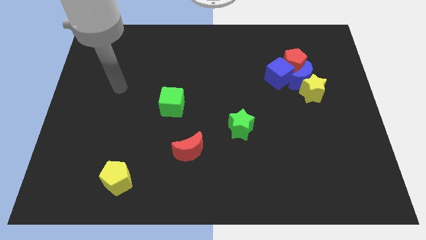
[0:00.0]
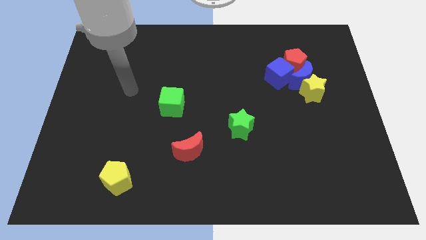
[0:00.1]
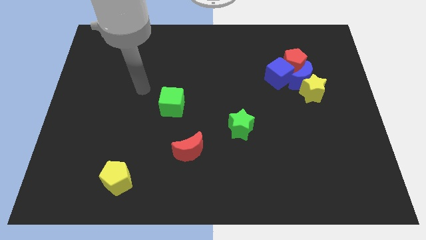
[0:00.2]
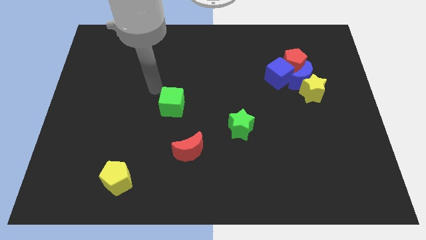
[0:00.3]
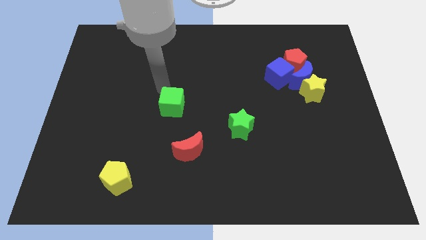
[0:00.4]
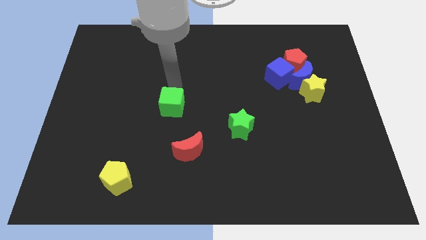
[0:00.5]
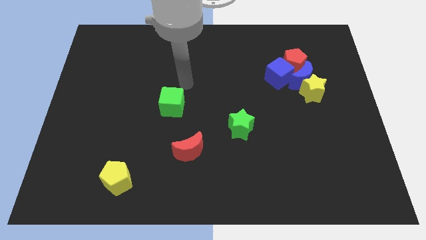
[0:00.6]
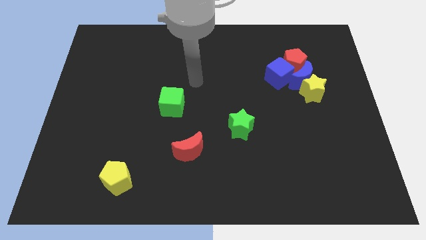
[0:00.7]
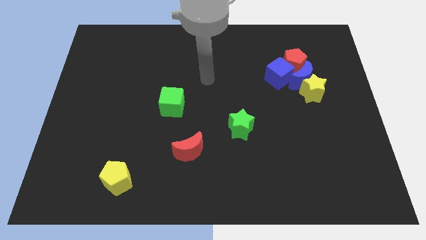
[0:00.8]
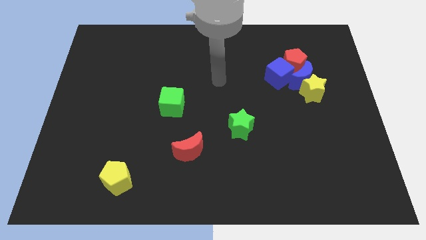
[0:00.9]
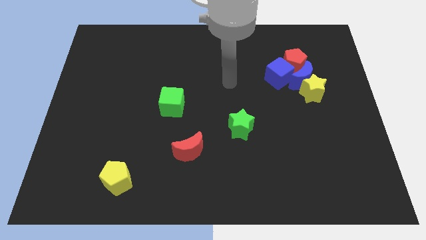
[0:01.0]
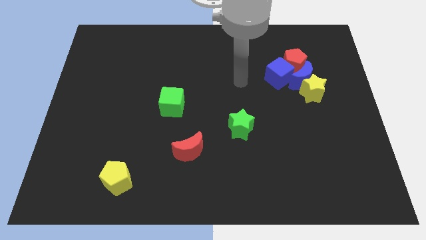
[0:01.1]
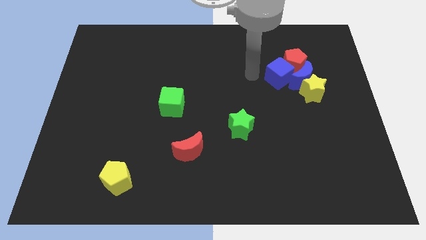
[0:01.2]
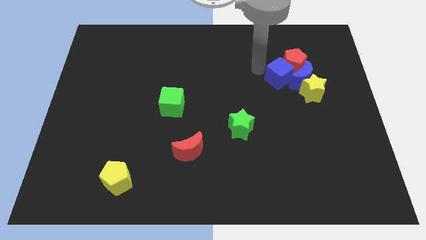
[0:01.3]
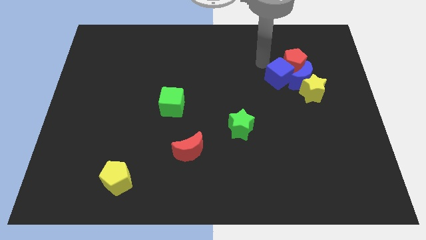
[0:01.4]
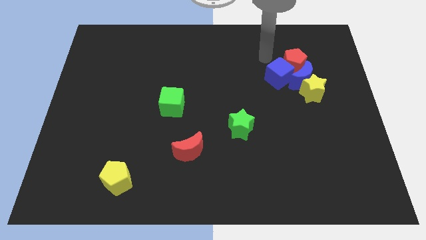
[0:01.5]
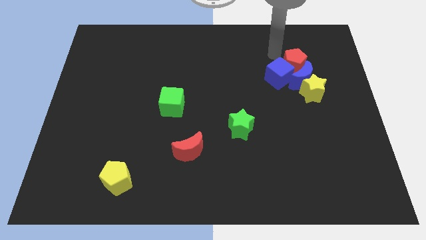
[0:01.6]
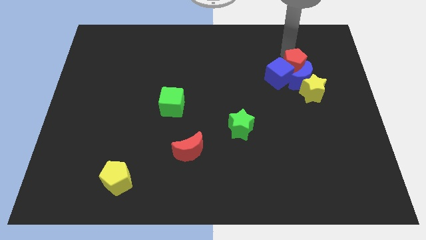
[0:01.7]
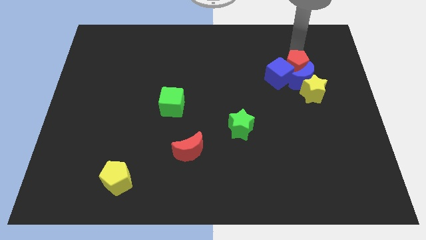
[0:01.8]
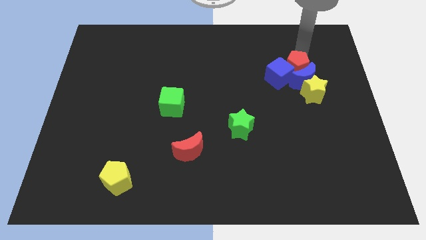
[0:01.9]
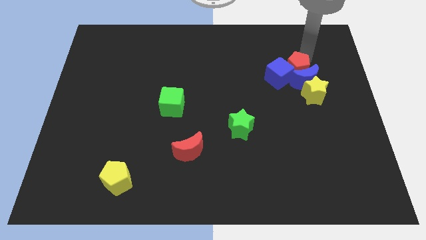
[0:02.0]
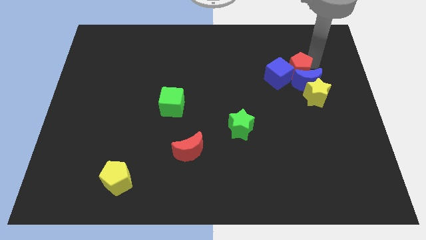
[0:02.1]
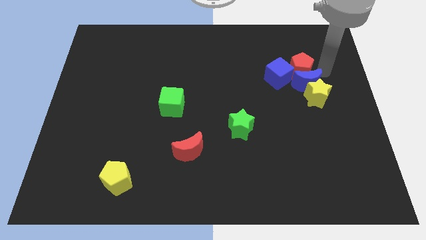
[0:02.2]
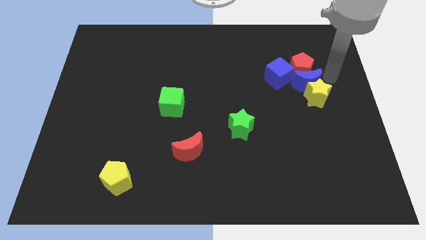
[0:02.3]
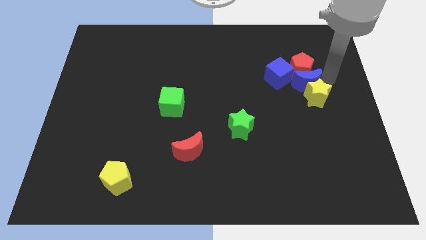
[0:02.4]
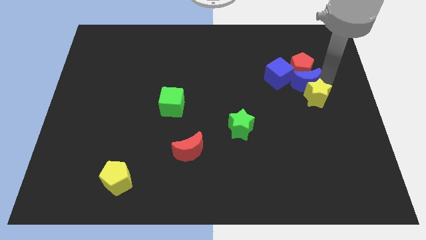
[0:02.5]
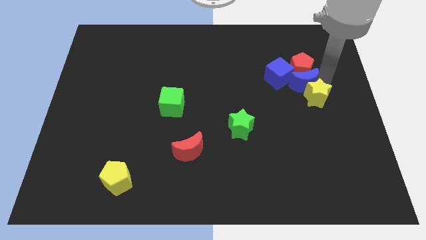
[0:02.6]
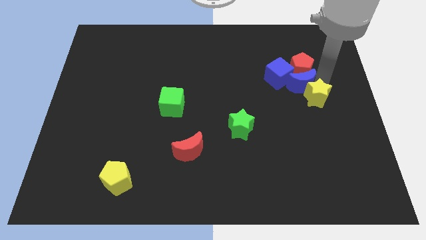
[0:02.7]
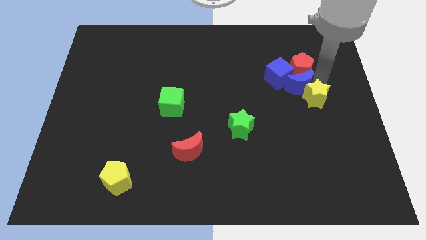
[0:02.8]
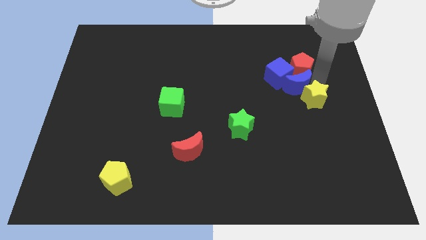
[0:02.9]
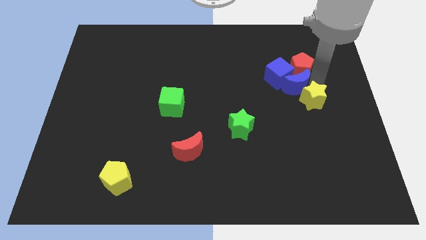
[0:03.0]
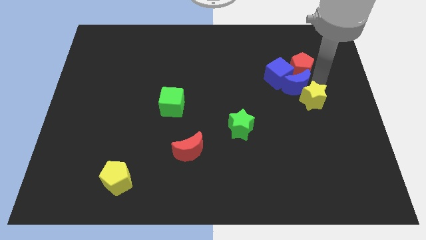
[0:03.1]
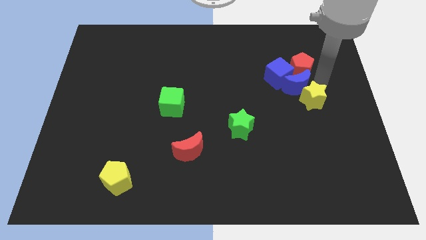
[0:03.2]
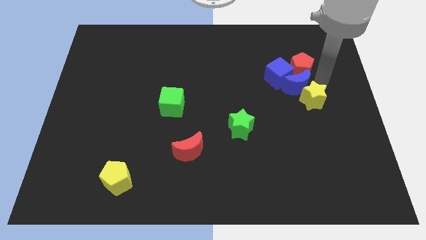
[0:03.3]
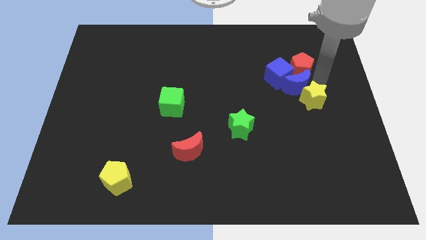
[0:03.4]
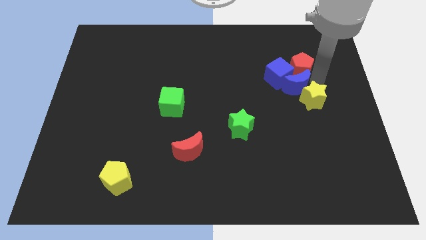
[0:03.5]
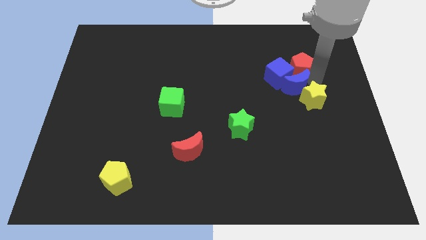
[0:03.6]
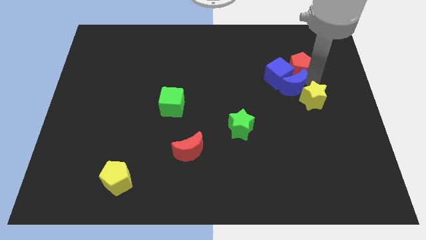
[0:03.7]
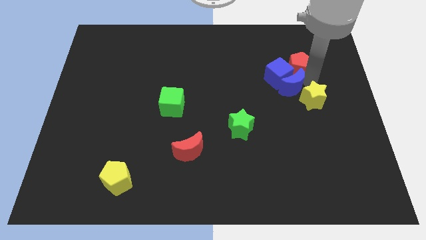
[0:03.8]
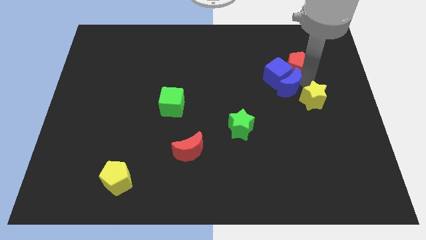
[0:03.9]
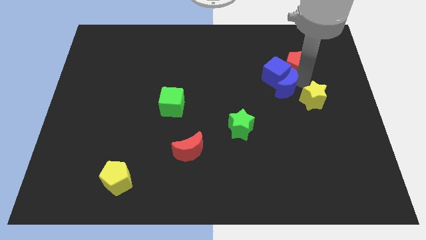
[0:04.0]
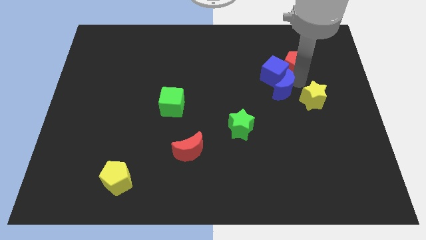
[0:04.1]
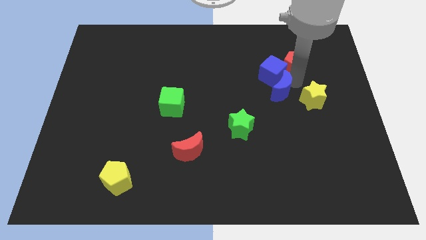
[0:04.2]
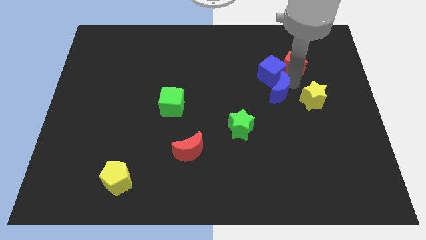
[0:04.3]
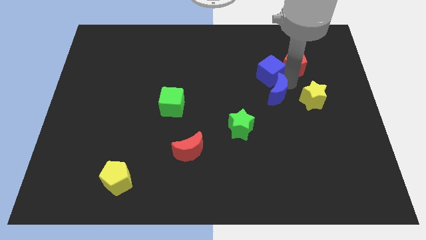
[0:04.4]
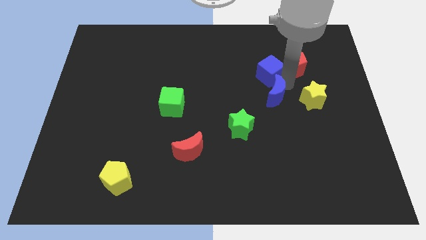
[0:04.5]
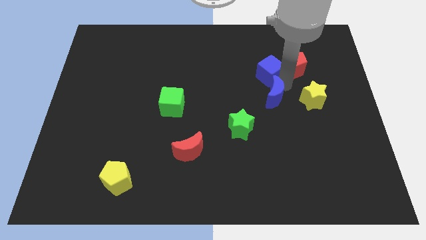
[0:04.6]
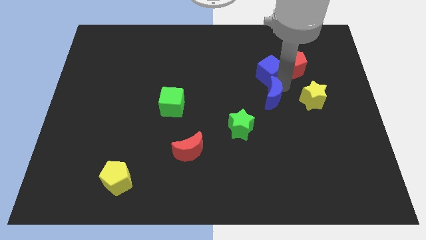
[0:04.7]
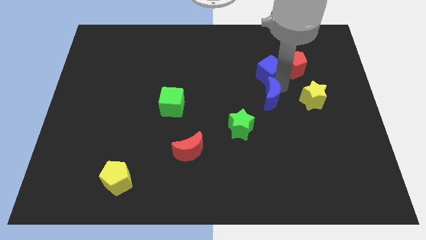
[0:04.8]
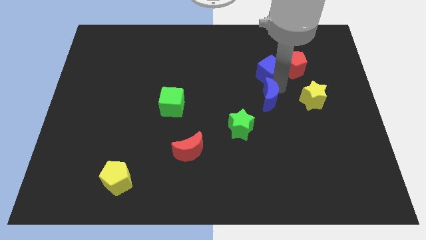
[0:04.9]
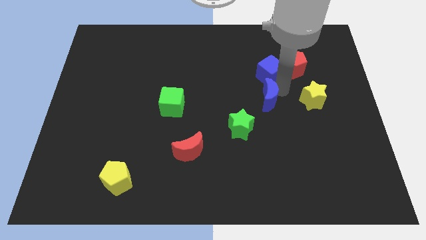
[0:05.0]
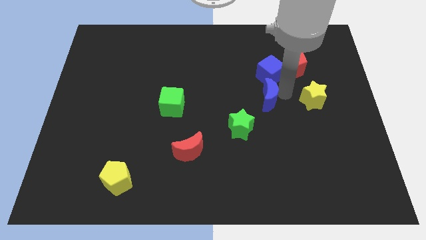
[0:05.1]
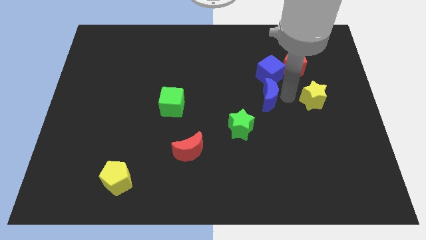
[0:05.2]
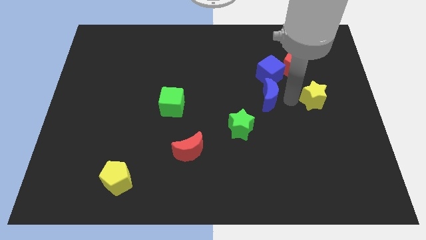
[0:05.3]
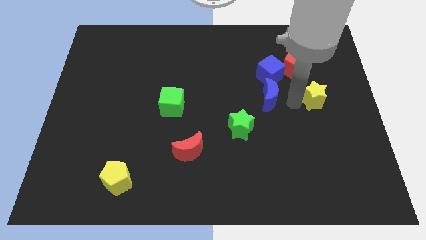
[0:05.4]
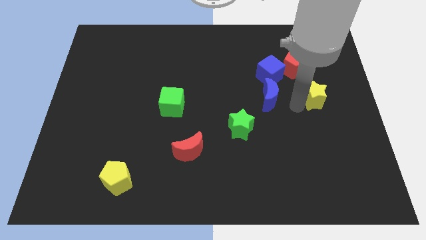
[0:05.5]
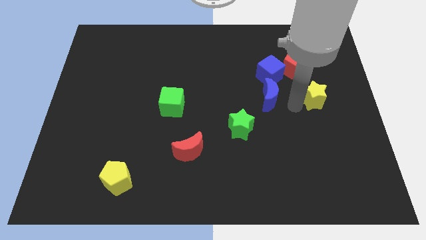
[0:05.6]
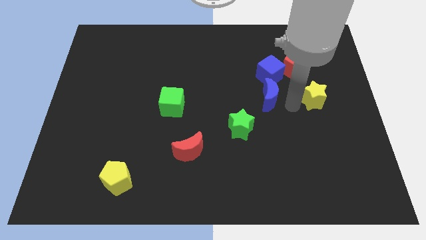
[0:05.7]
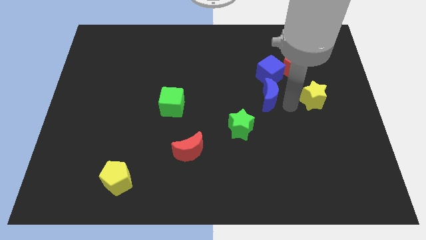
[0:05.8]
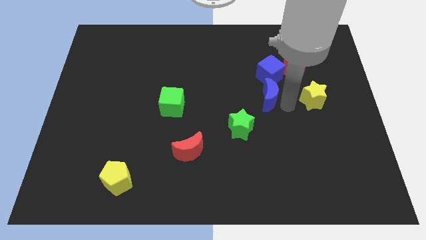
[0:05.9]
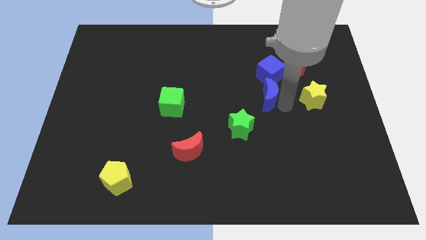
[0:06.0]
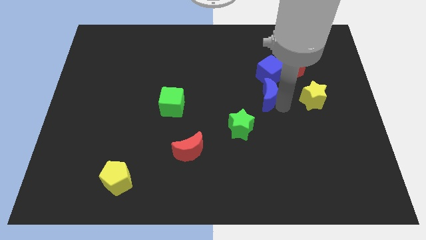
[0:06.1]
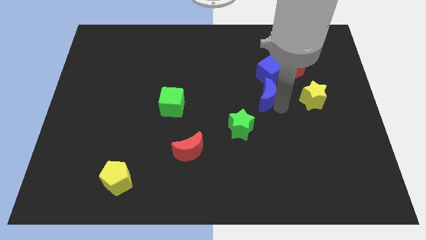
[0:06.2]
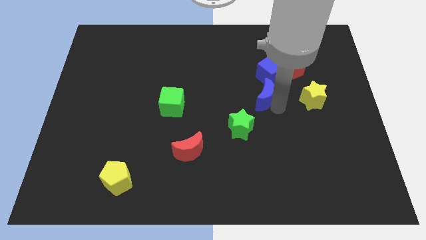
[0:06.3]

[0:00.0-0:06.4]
put the blue moon to the middle of the board

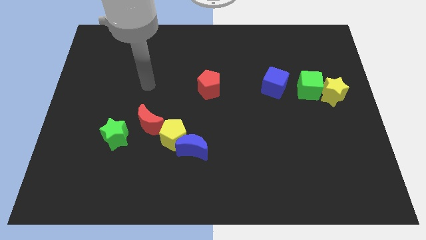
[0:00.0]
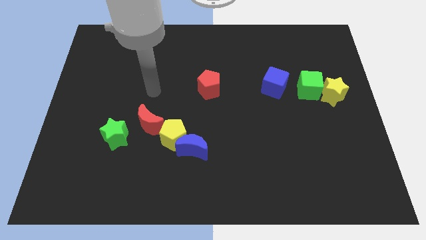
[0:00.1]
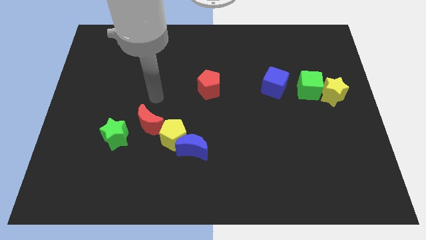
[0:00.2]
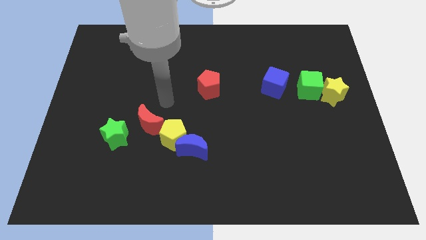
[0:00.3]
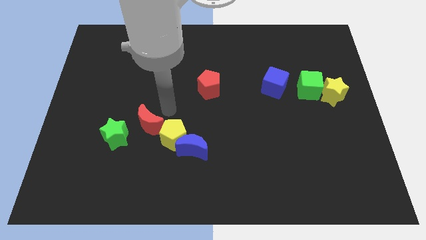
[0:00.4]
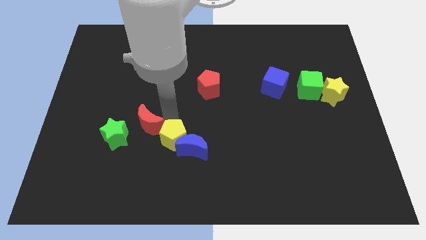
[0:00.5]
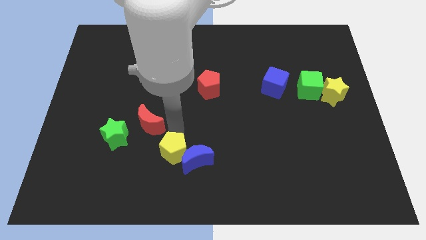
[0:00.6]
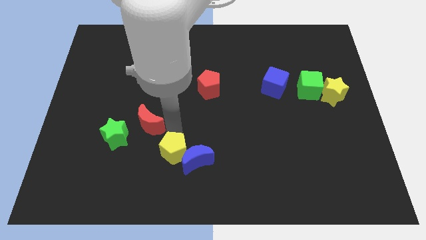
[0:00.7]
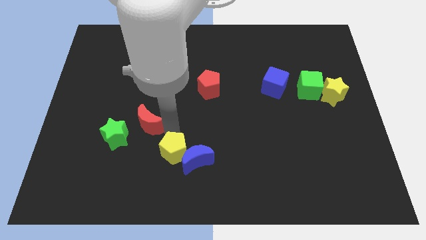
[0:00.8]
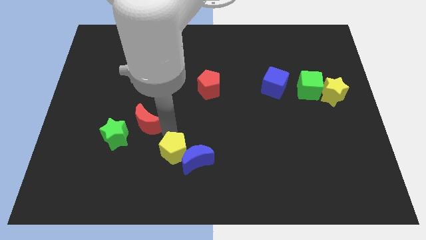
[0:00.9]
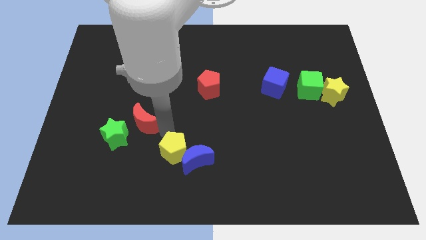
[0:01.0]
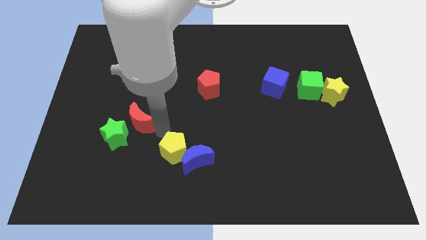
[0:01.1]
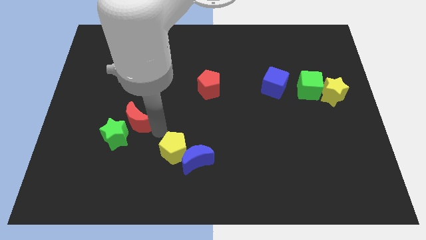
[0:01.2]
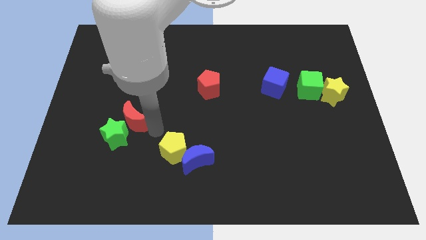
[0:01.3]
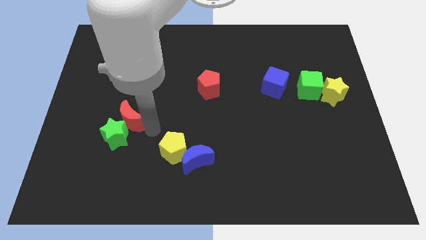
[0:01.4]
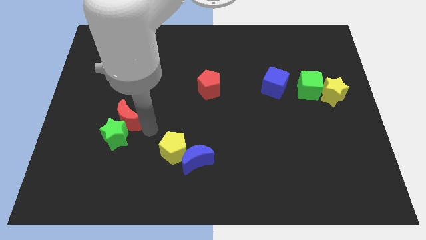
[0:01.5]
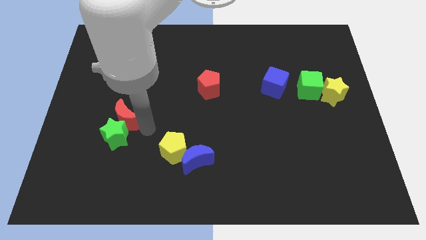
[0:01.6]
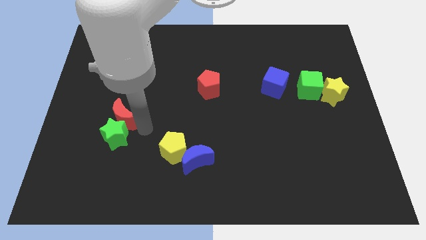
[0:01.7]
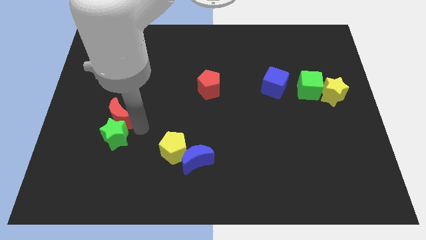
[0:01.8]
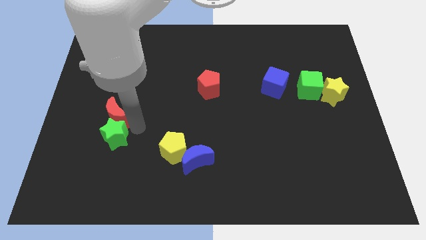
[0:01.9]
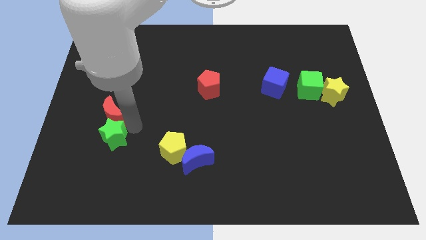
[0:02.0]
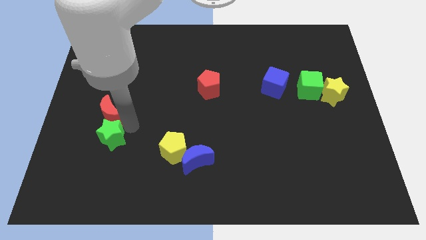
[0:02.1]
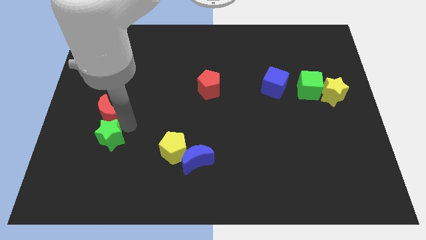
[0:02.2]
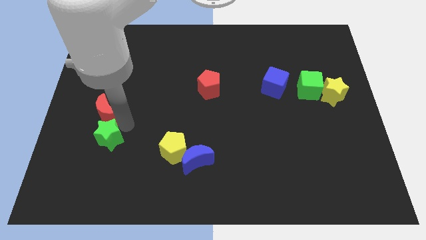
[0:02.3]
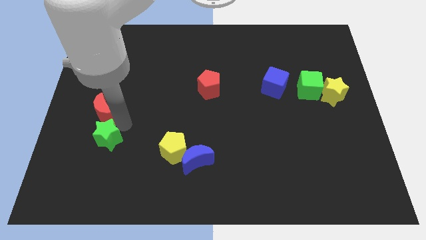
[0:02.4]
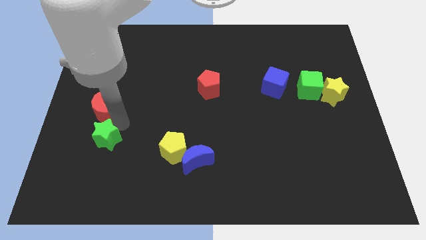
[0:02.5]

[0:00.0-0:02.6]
put the red moon to the left side of the board
